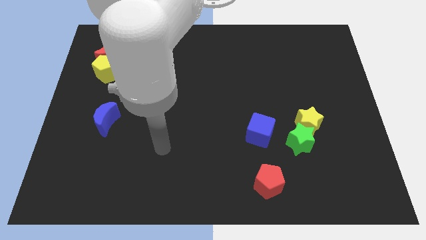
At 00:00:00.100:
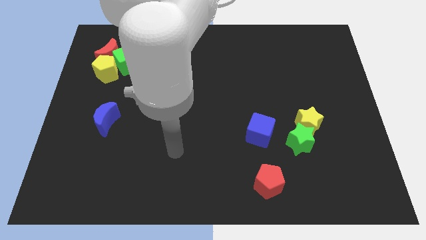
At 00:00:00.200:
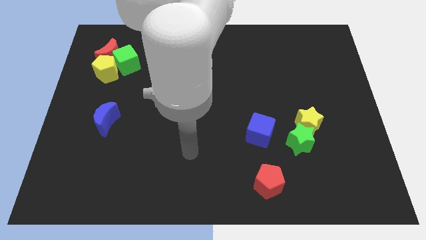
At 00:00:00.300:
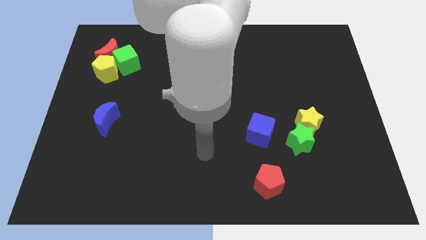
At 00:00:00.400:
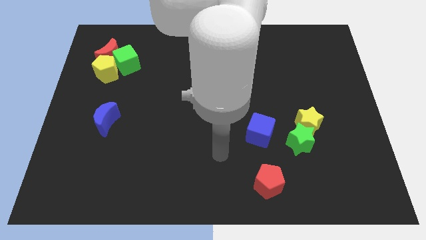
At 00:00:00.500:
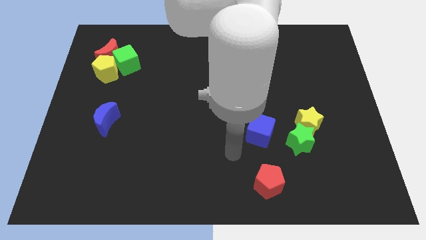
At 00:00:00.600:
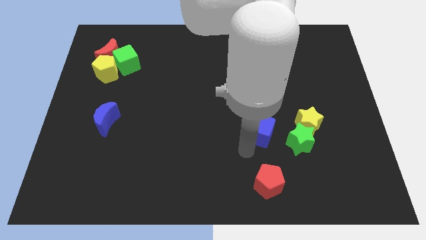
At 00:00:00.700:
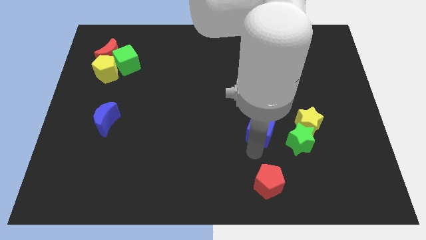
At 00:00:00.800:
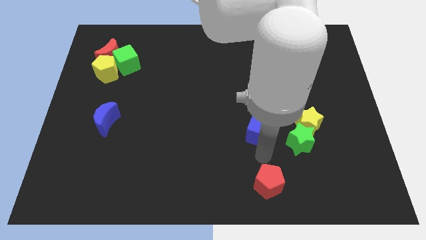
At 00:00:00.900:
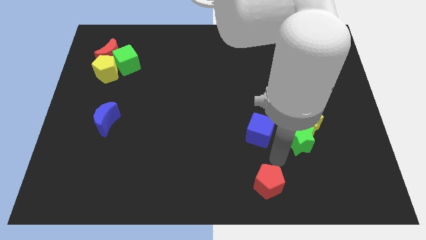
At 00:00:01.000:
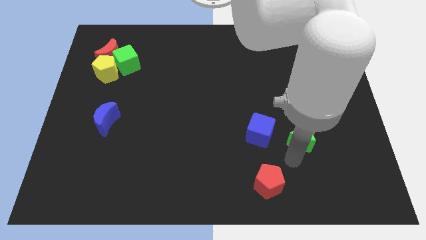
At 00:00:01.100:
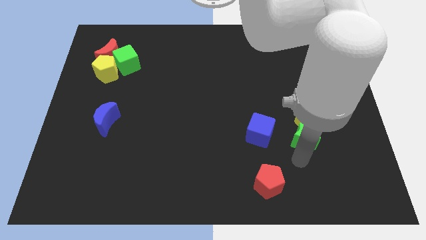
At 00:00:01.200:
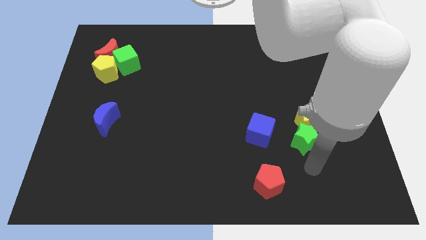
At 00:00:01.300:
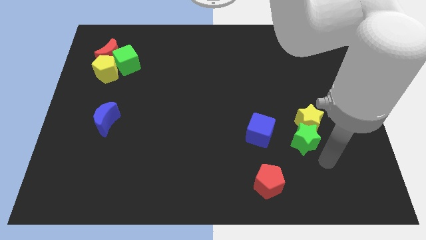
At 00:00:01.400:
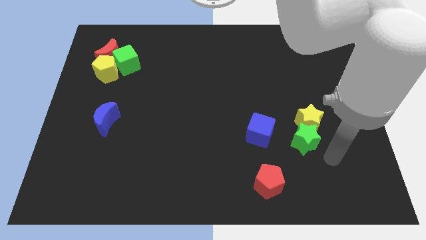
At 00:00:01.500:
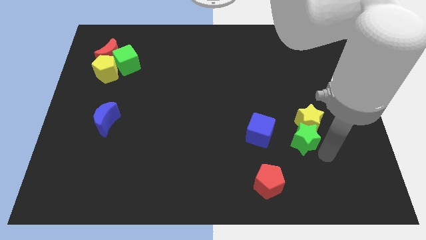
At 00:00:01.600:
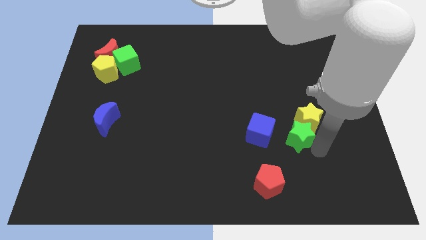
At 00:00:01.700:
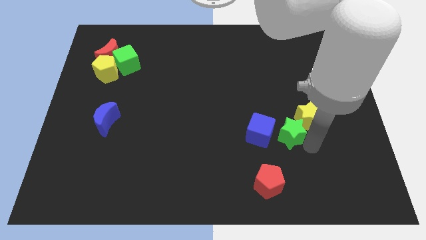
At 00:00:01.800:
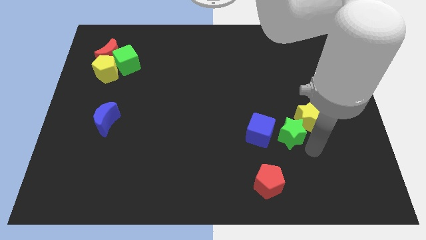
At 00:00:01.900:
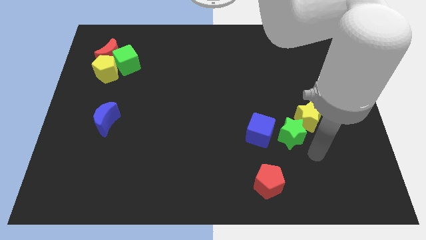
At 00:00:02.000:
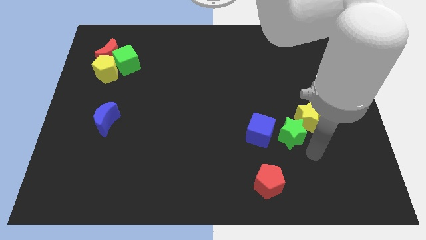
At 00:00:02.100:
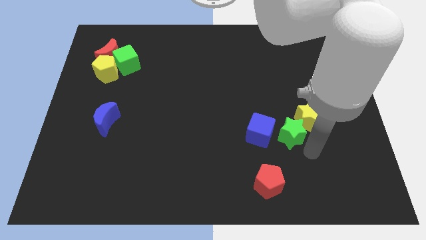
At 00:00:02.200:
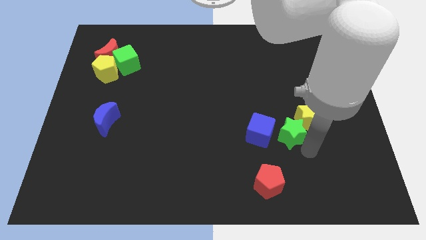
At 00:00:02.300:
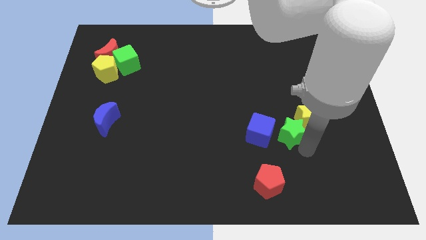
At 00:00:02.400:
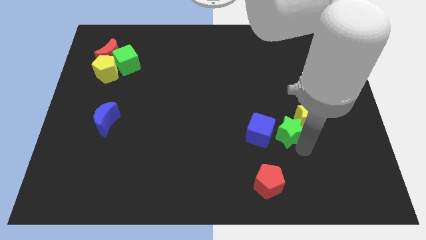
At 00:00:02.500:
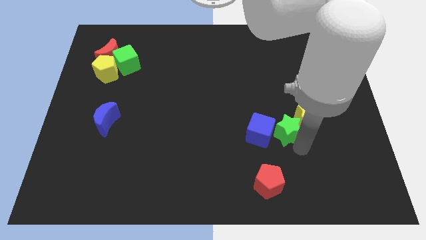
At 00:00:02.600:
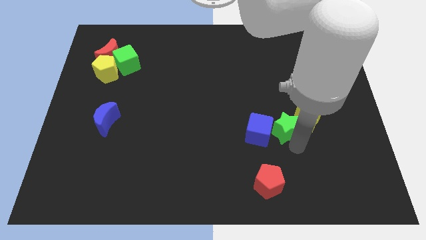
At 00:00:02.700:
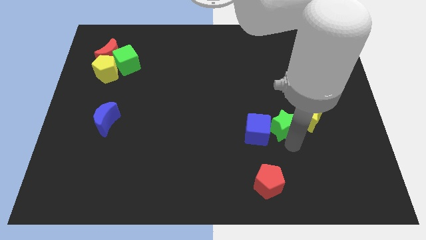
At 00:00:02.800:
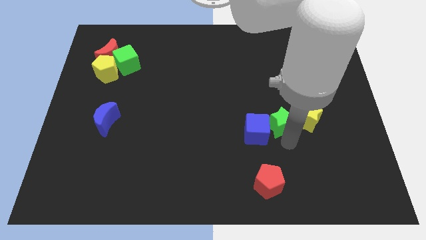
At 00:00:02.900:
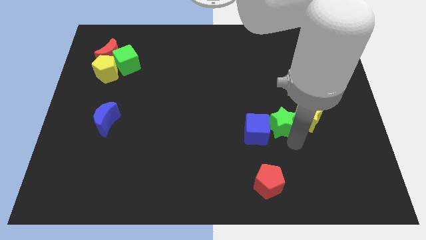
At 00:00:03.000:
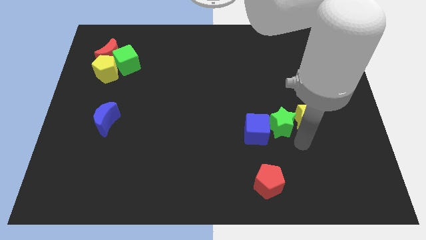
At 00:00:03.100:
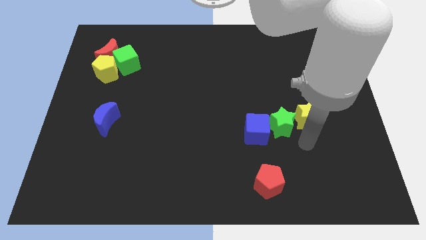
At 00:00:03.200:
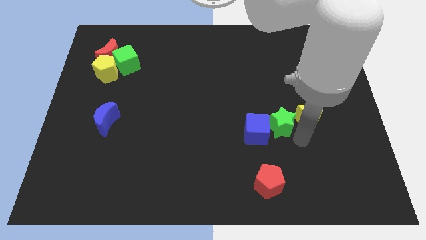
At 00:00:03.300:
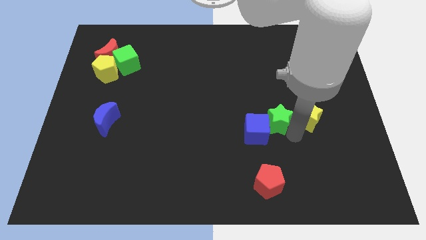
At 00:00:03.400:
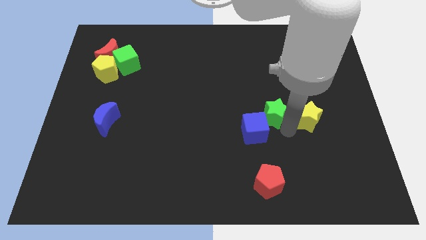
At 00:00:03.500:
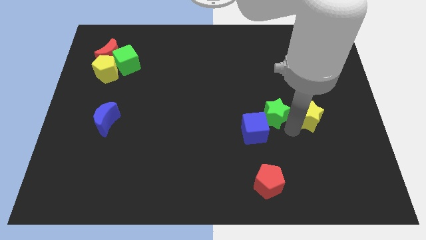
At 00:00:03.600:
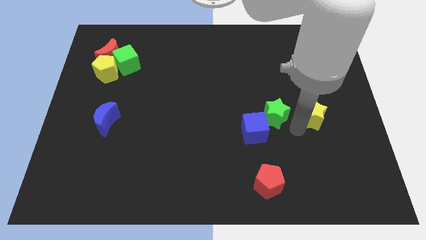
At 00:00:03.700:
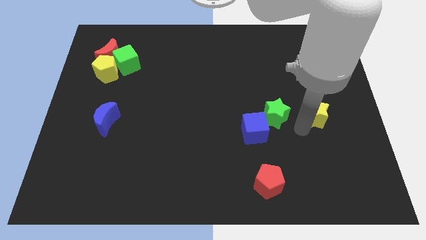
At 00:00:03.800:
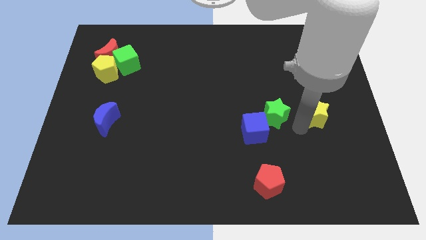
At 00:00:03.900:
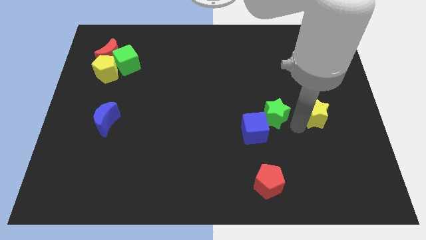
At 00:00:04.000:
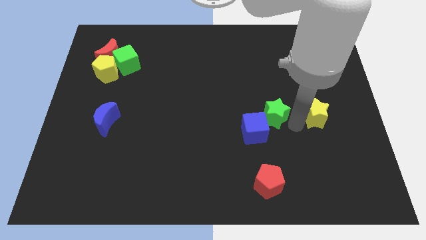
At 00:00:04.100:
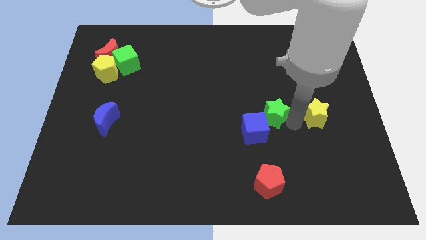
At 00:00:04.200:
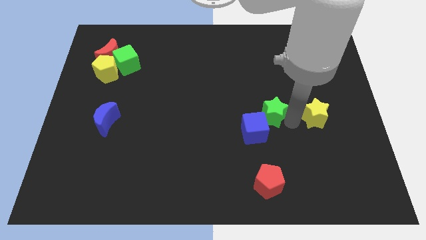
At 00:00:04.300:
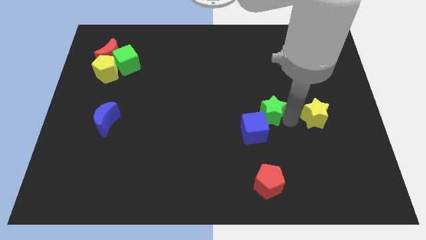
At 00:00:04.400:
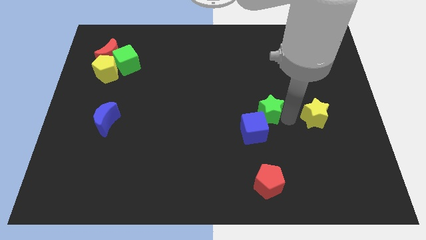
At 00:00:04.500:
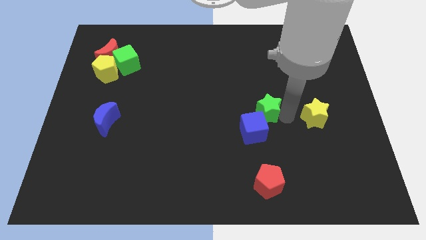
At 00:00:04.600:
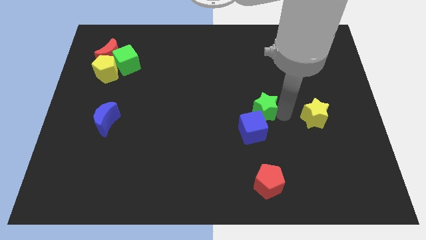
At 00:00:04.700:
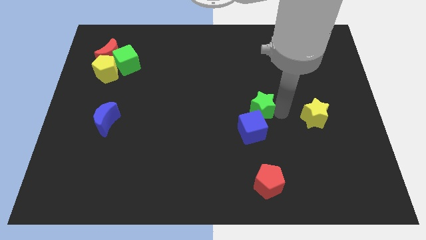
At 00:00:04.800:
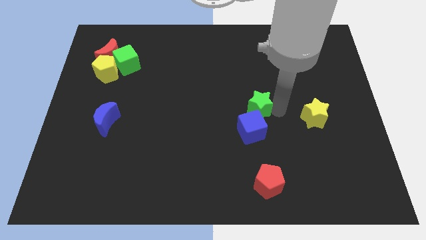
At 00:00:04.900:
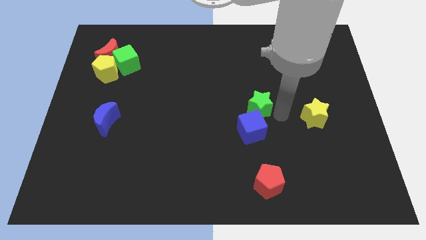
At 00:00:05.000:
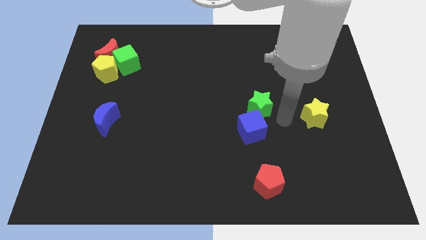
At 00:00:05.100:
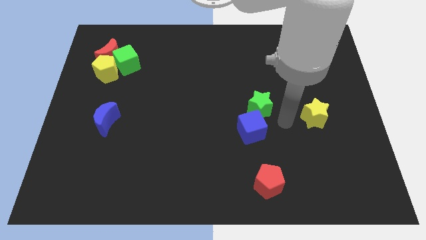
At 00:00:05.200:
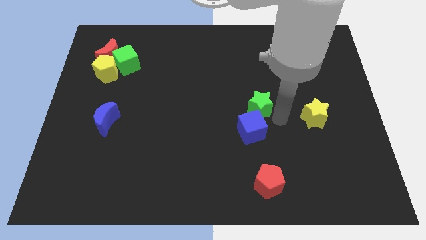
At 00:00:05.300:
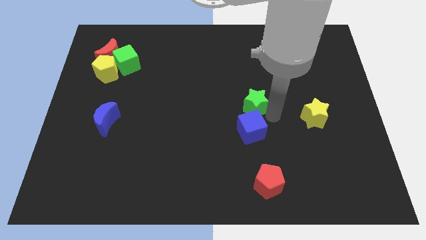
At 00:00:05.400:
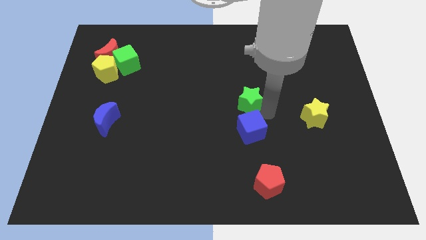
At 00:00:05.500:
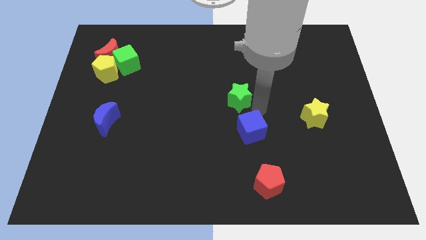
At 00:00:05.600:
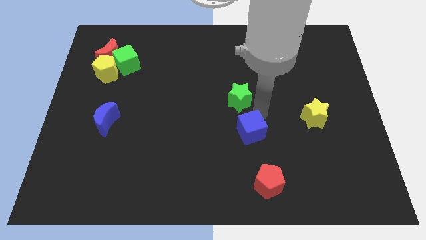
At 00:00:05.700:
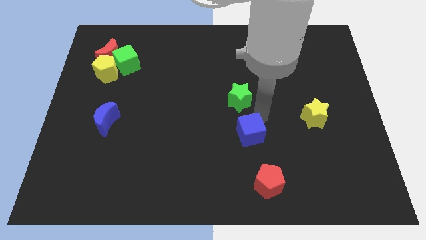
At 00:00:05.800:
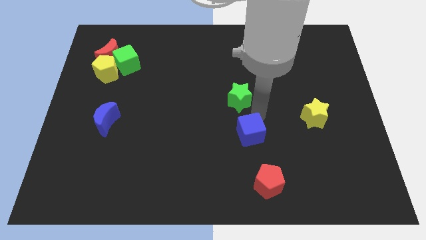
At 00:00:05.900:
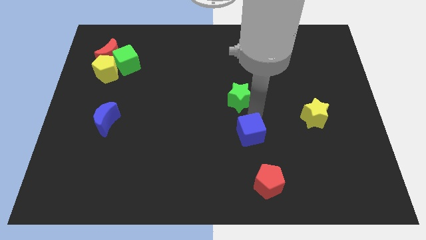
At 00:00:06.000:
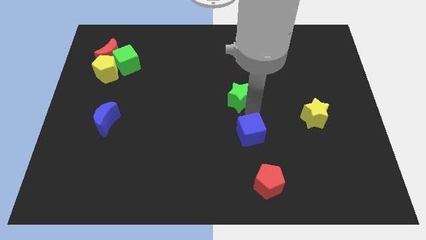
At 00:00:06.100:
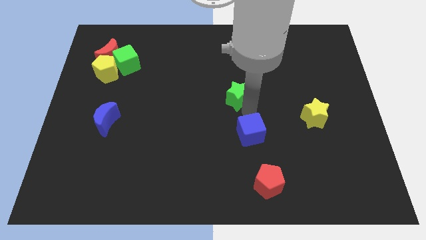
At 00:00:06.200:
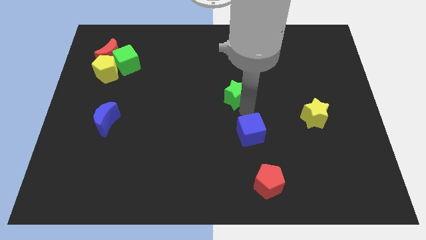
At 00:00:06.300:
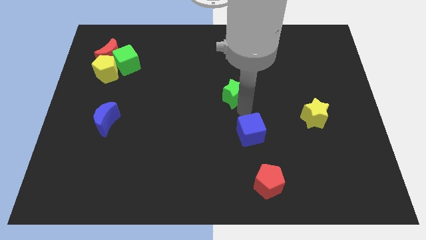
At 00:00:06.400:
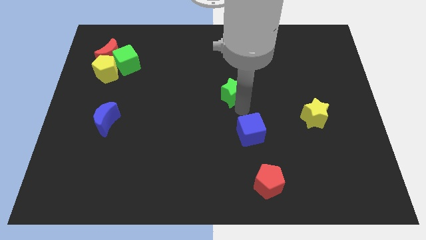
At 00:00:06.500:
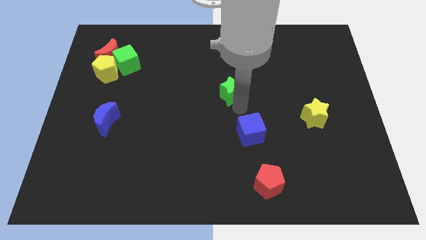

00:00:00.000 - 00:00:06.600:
slide the green star up and then to the left

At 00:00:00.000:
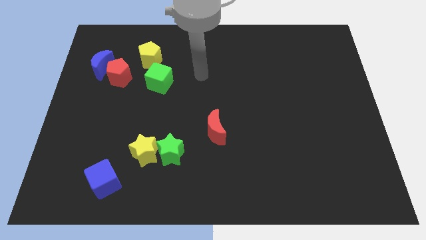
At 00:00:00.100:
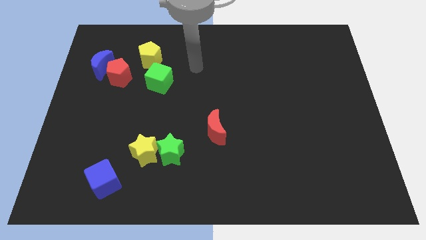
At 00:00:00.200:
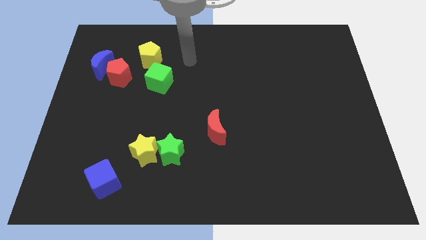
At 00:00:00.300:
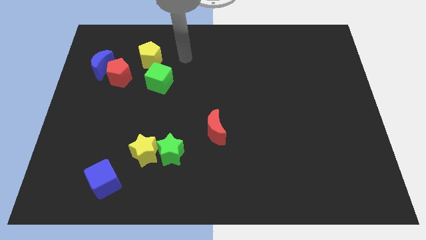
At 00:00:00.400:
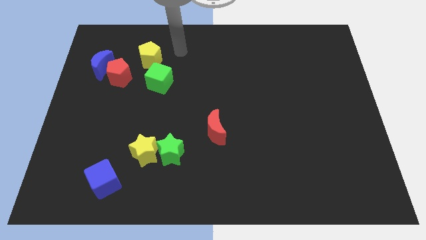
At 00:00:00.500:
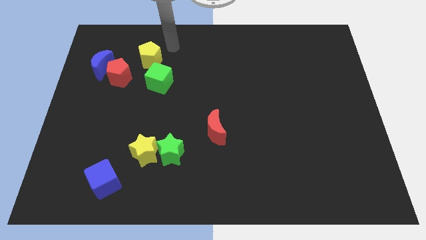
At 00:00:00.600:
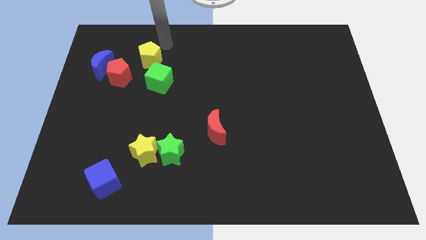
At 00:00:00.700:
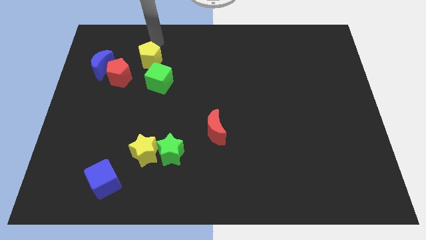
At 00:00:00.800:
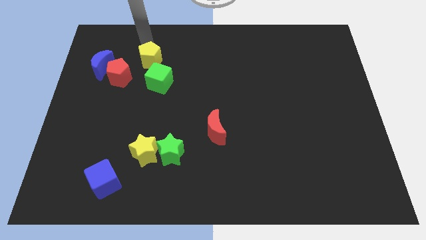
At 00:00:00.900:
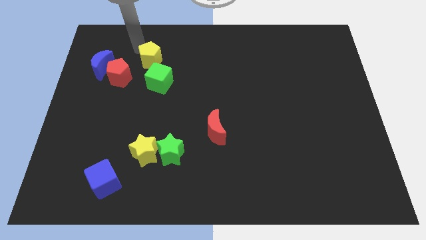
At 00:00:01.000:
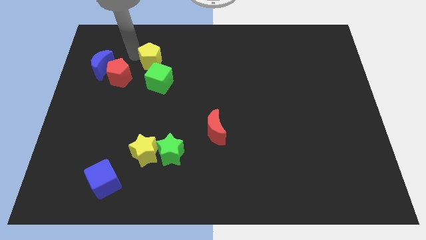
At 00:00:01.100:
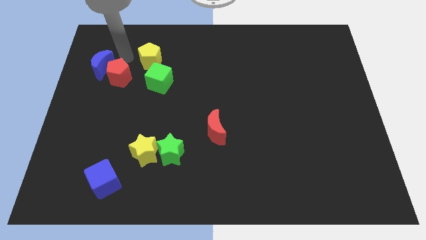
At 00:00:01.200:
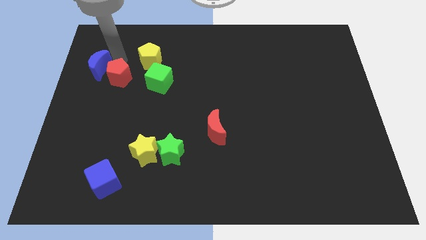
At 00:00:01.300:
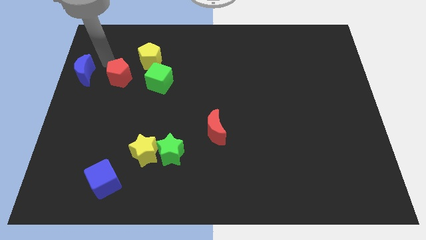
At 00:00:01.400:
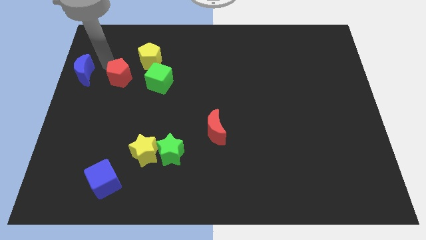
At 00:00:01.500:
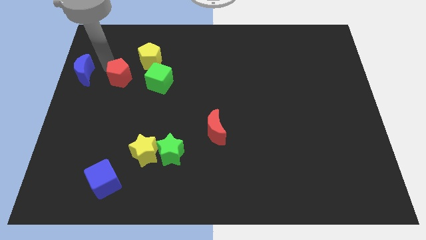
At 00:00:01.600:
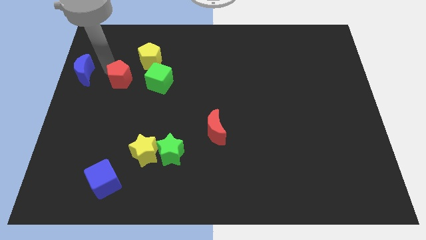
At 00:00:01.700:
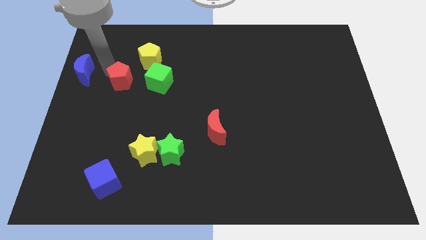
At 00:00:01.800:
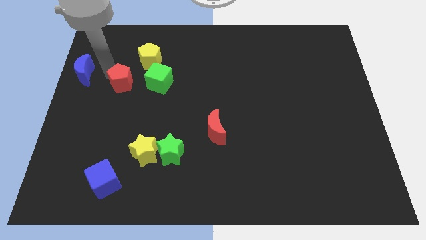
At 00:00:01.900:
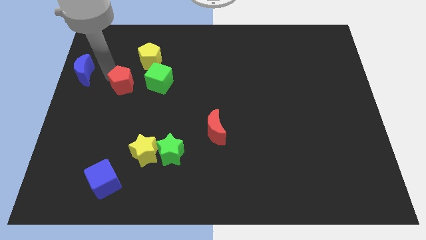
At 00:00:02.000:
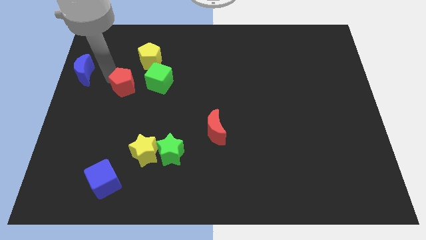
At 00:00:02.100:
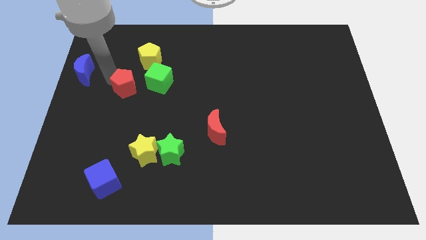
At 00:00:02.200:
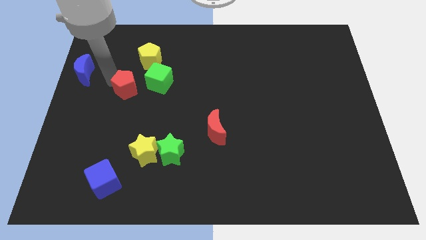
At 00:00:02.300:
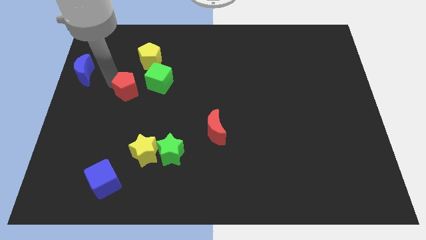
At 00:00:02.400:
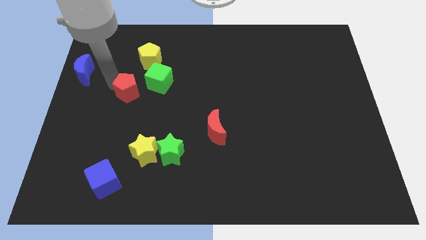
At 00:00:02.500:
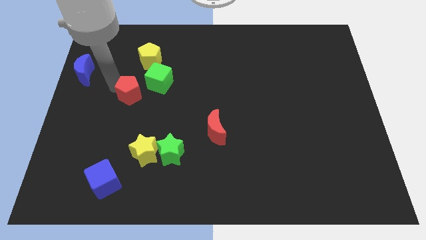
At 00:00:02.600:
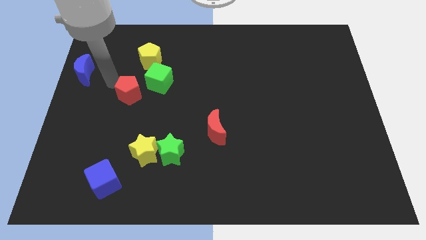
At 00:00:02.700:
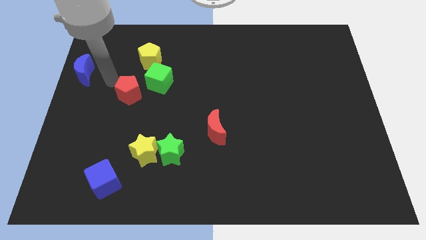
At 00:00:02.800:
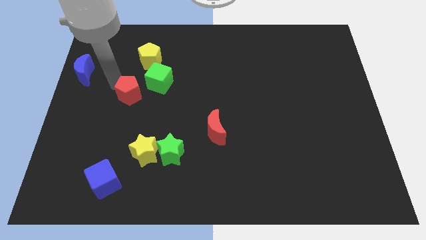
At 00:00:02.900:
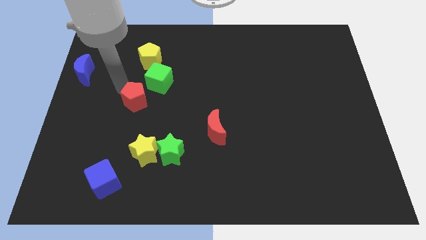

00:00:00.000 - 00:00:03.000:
slide the red pentagon a little diagonally downwards and to the right
